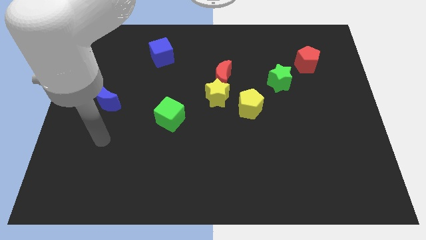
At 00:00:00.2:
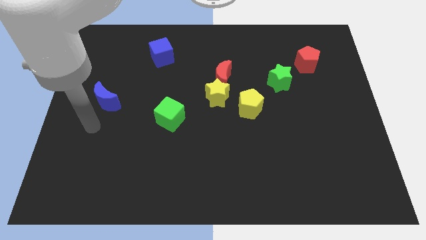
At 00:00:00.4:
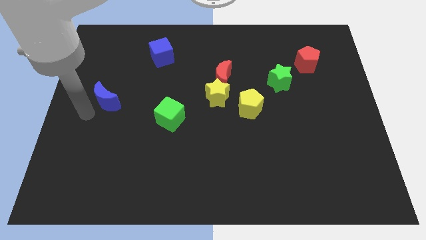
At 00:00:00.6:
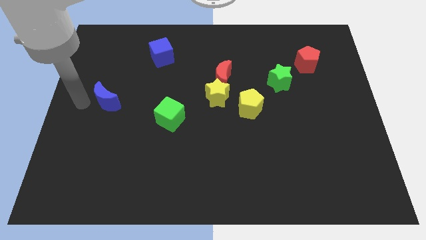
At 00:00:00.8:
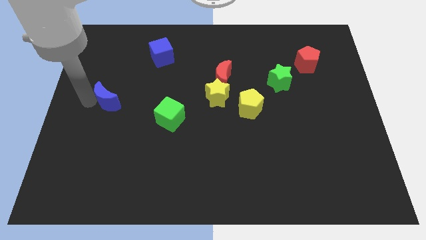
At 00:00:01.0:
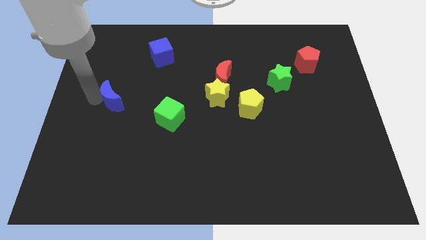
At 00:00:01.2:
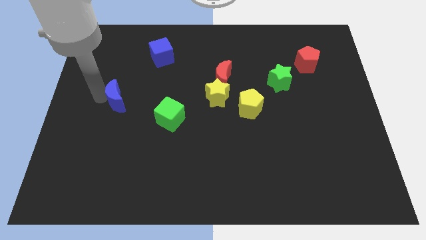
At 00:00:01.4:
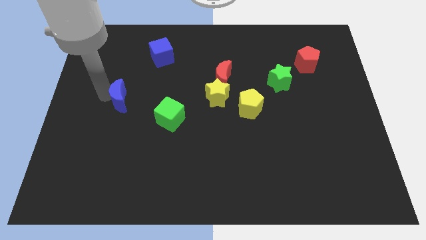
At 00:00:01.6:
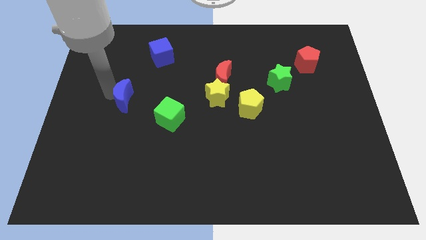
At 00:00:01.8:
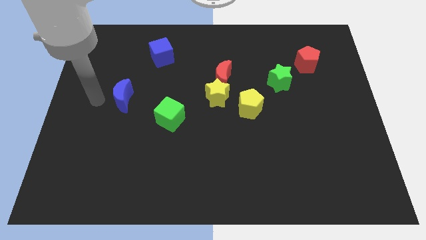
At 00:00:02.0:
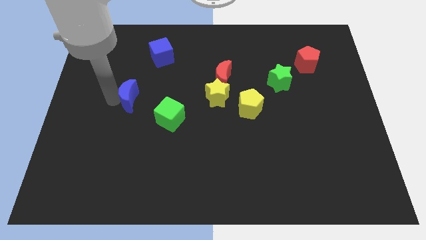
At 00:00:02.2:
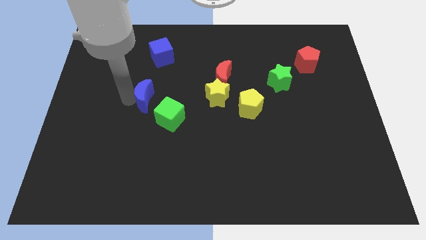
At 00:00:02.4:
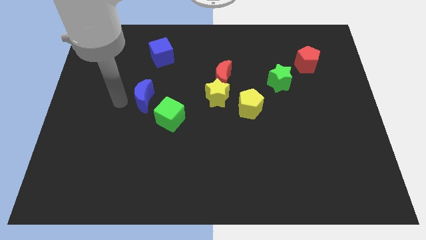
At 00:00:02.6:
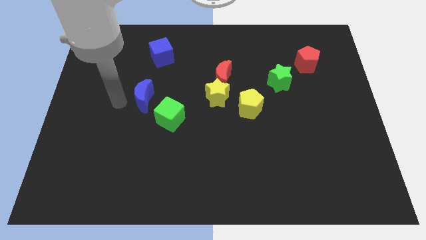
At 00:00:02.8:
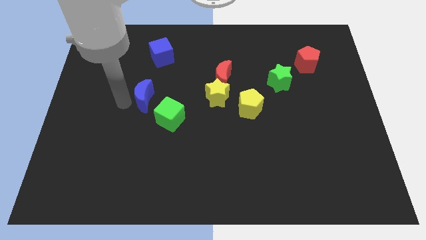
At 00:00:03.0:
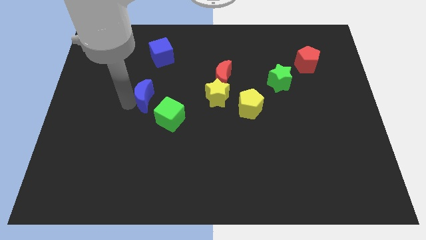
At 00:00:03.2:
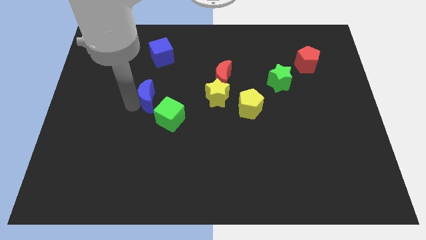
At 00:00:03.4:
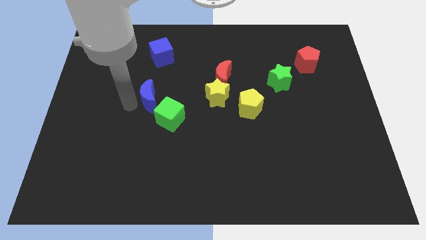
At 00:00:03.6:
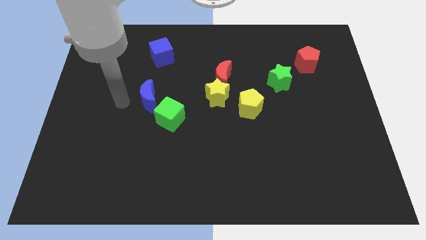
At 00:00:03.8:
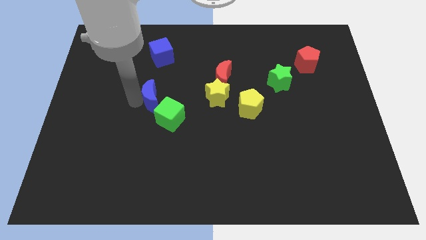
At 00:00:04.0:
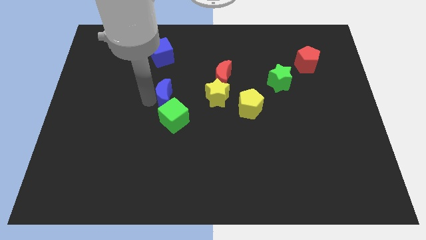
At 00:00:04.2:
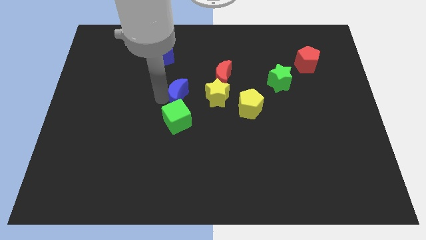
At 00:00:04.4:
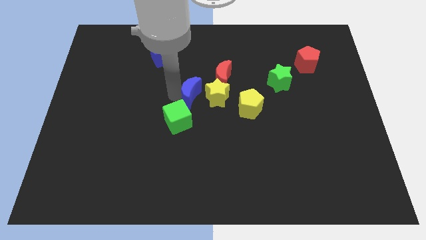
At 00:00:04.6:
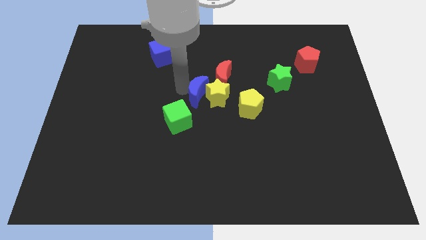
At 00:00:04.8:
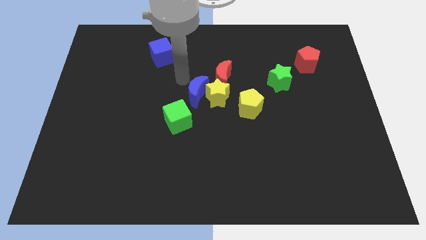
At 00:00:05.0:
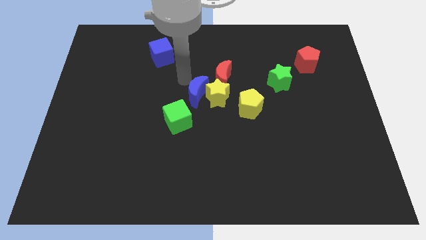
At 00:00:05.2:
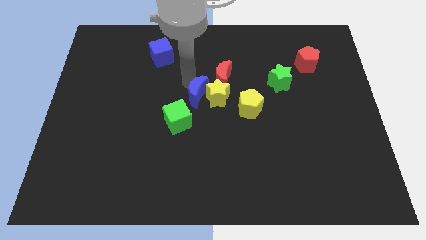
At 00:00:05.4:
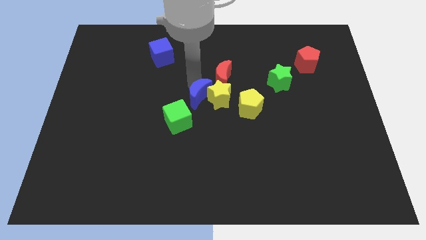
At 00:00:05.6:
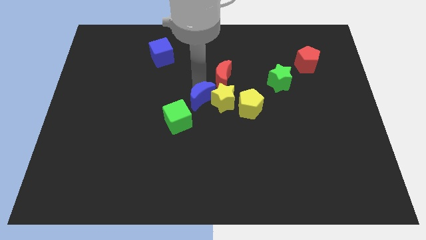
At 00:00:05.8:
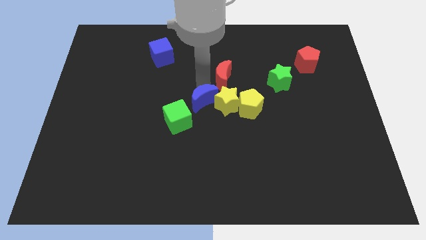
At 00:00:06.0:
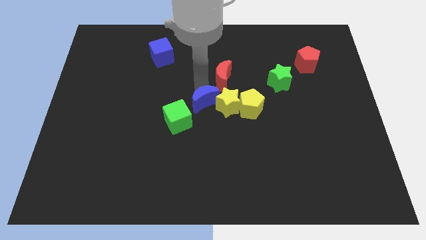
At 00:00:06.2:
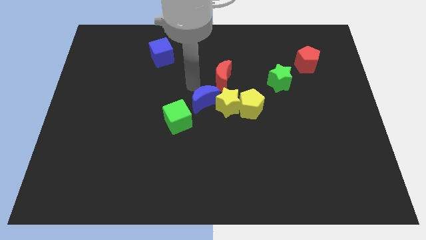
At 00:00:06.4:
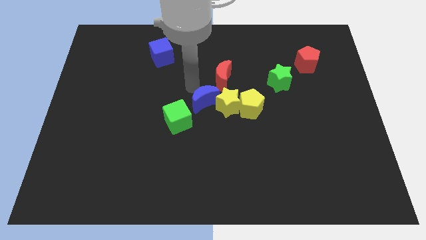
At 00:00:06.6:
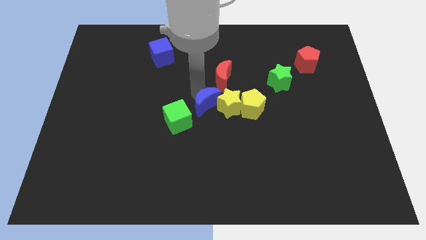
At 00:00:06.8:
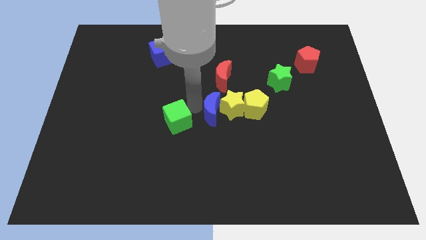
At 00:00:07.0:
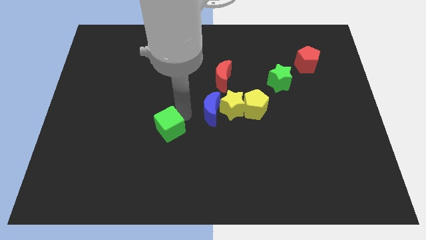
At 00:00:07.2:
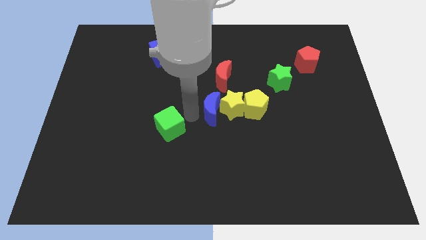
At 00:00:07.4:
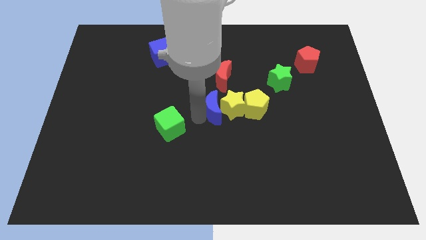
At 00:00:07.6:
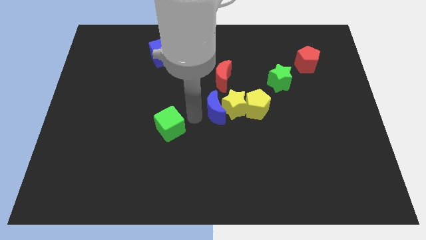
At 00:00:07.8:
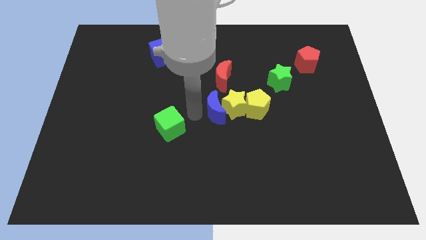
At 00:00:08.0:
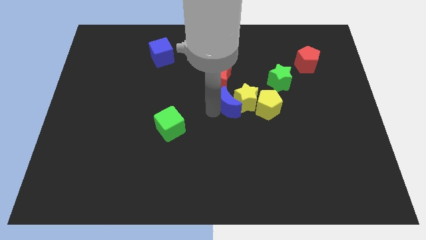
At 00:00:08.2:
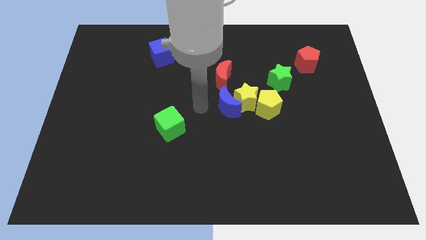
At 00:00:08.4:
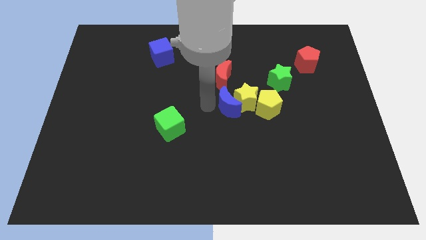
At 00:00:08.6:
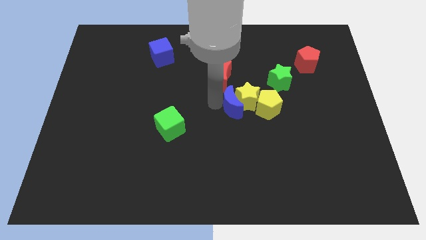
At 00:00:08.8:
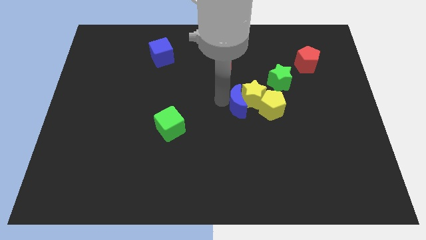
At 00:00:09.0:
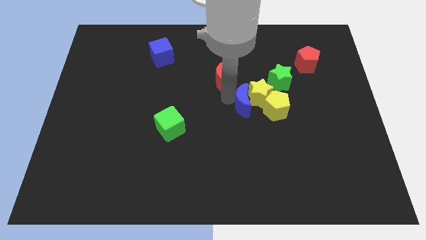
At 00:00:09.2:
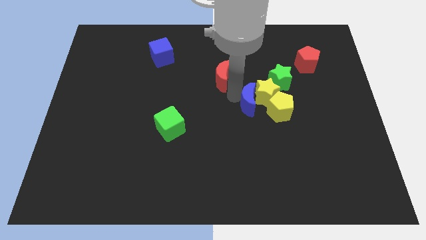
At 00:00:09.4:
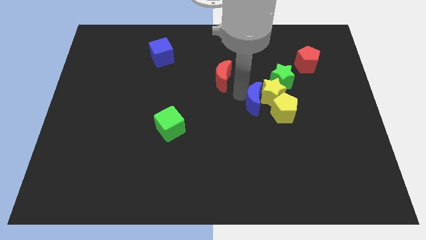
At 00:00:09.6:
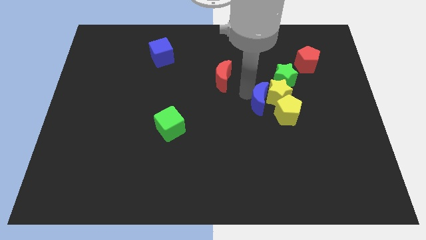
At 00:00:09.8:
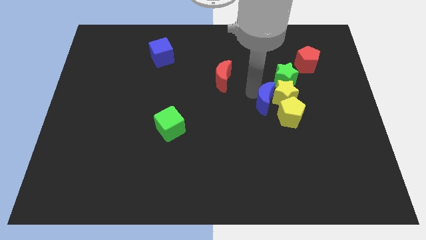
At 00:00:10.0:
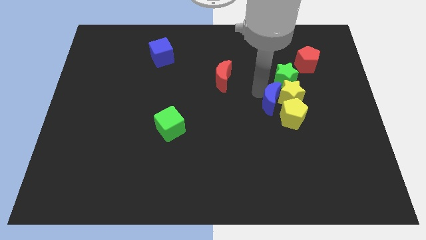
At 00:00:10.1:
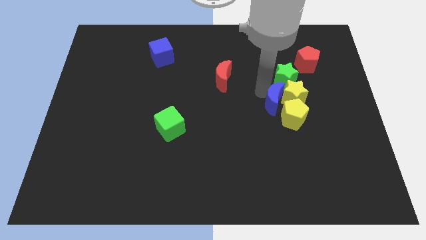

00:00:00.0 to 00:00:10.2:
move the blue moon to the yellow pentagon

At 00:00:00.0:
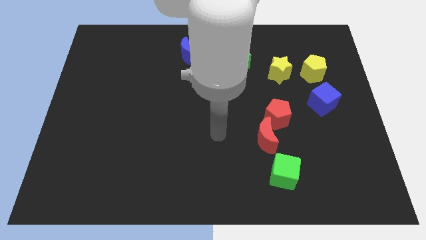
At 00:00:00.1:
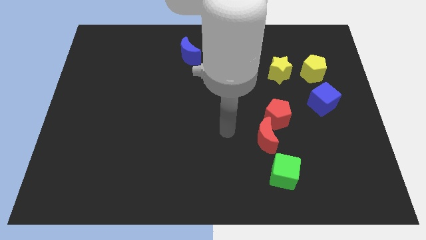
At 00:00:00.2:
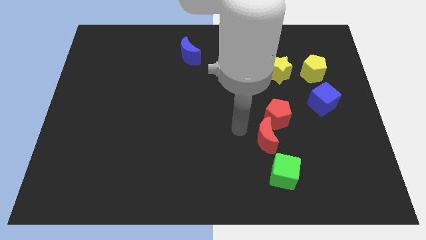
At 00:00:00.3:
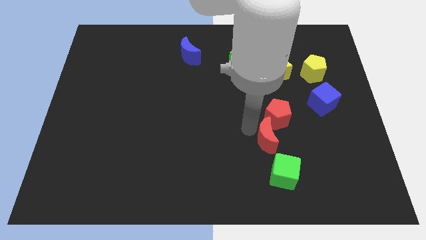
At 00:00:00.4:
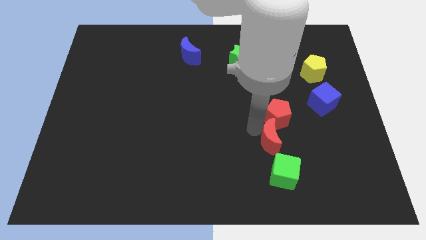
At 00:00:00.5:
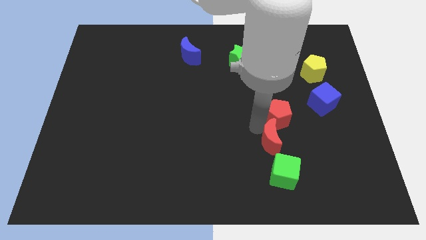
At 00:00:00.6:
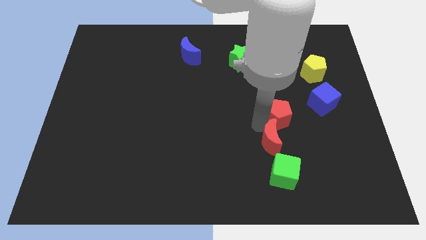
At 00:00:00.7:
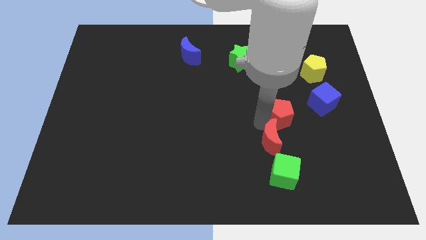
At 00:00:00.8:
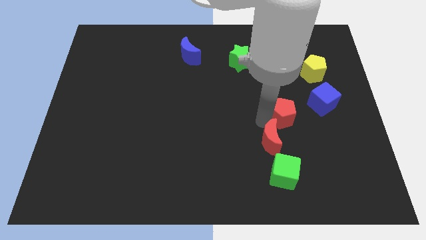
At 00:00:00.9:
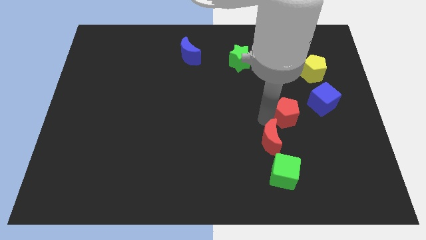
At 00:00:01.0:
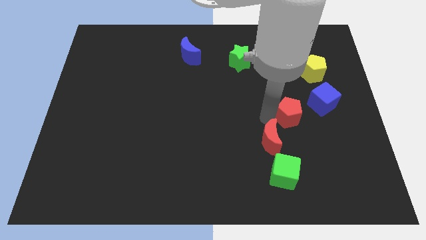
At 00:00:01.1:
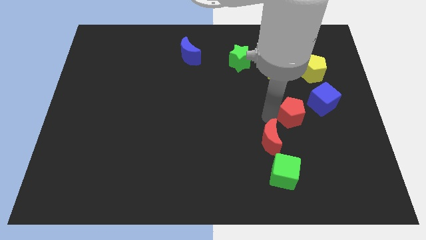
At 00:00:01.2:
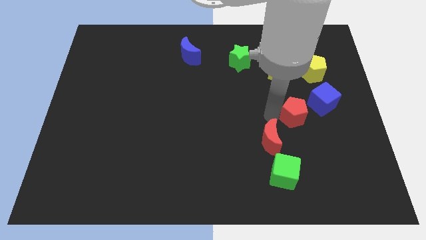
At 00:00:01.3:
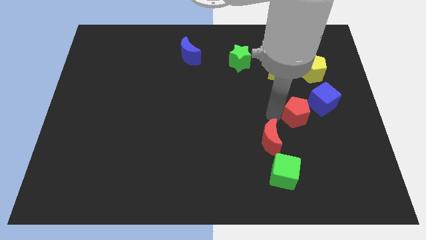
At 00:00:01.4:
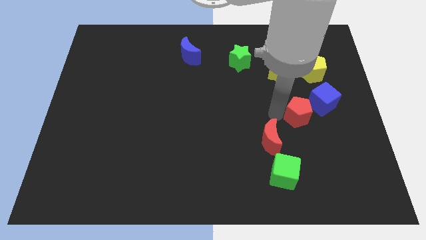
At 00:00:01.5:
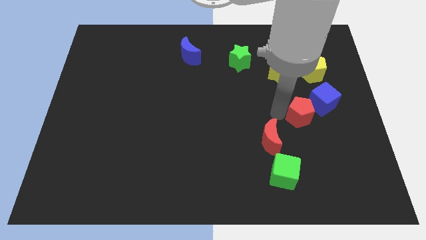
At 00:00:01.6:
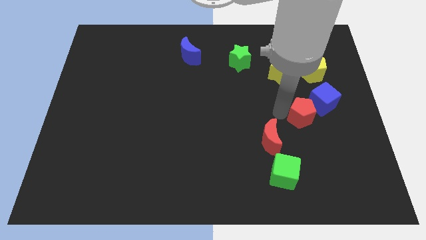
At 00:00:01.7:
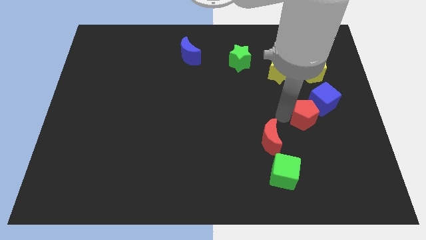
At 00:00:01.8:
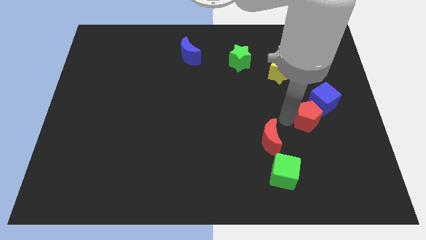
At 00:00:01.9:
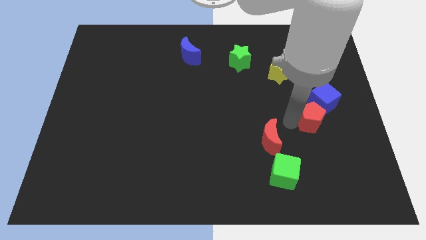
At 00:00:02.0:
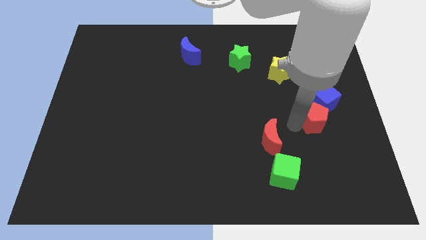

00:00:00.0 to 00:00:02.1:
push the red pentagon next to the blue cube

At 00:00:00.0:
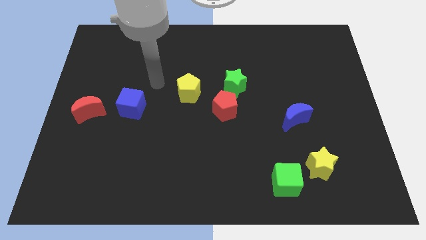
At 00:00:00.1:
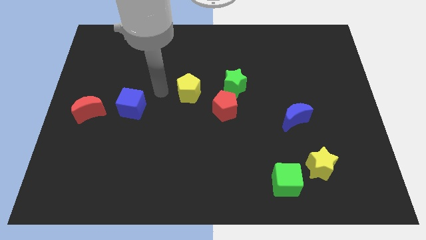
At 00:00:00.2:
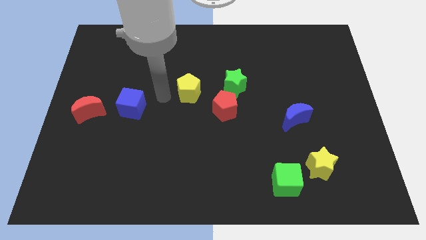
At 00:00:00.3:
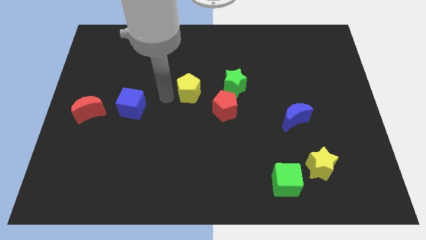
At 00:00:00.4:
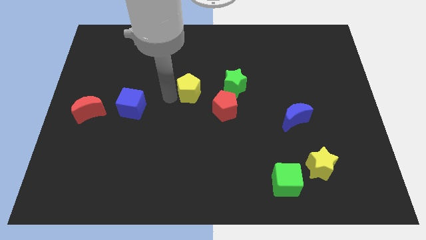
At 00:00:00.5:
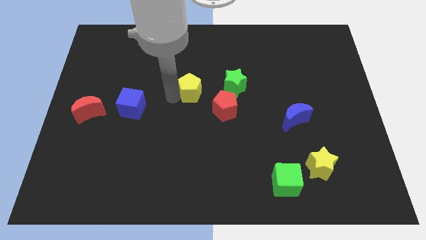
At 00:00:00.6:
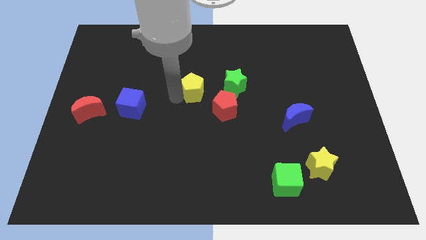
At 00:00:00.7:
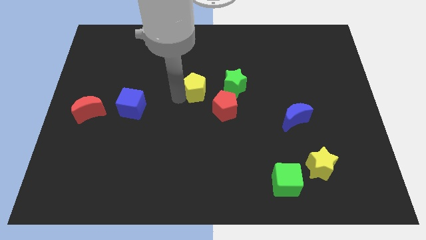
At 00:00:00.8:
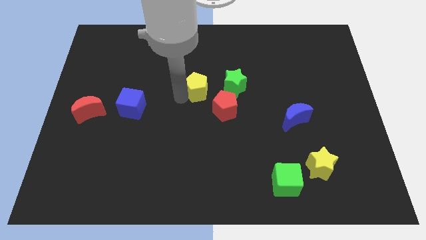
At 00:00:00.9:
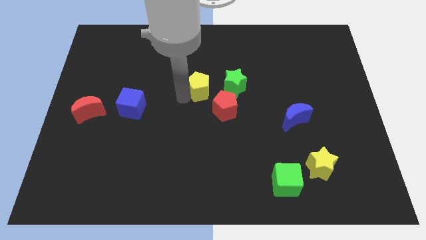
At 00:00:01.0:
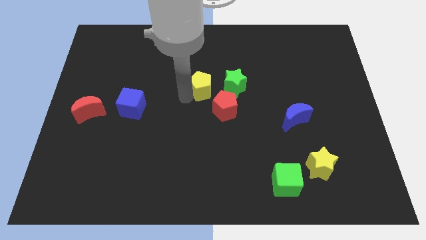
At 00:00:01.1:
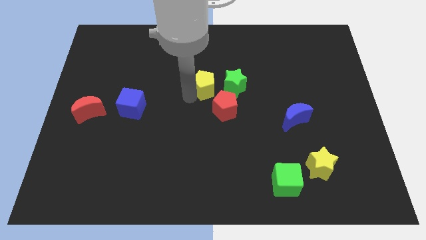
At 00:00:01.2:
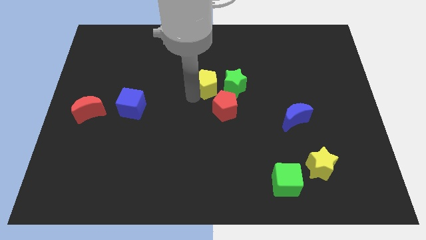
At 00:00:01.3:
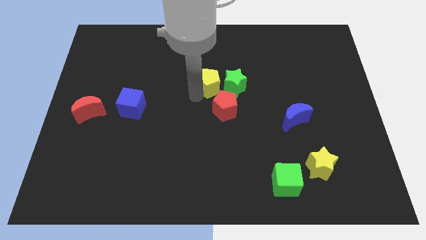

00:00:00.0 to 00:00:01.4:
move the yellow pentagon towards the green star
